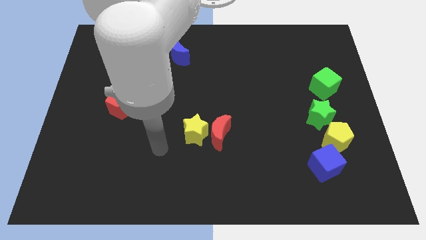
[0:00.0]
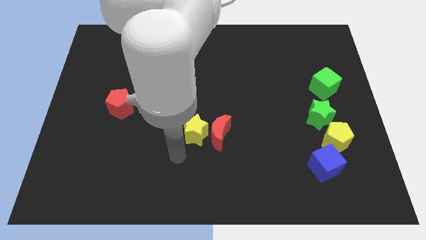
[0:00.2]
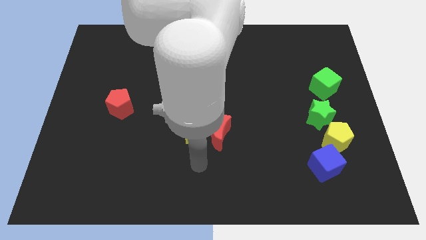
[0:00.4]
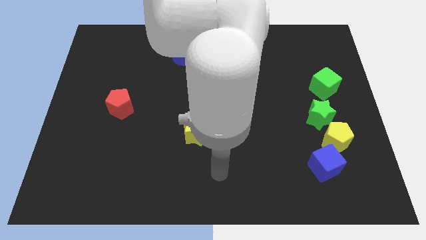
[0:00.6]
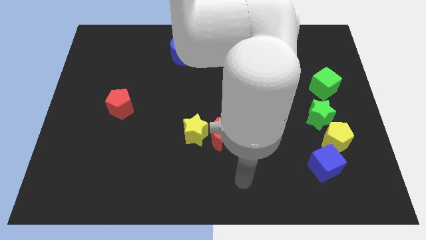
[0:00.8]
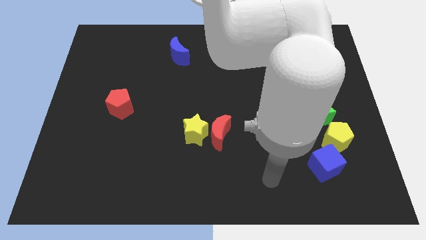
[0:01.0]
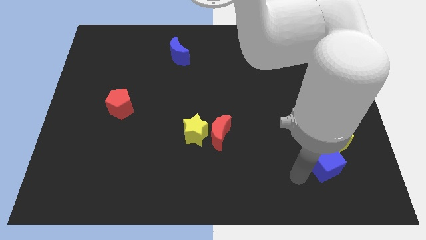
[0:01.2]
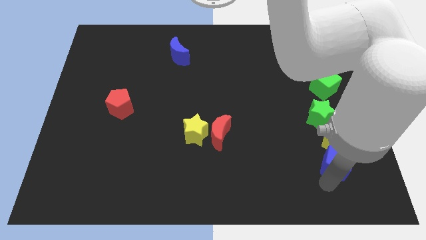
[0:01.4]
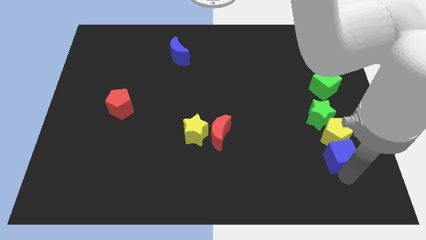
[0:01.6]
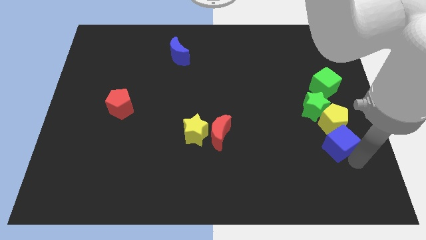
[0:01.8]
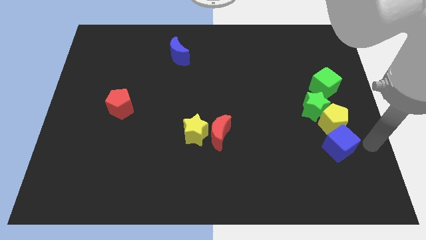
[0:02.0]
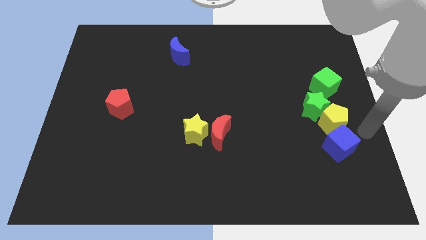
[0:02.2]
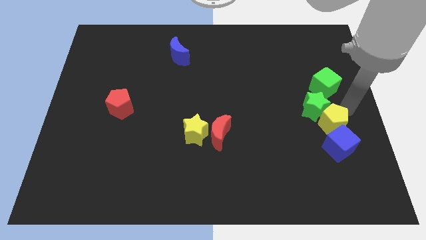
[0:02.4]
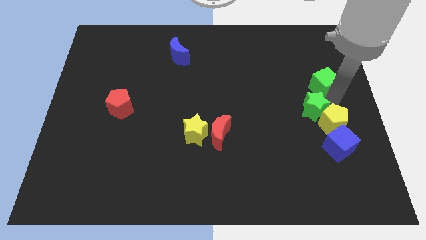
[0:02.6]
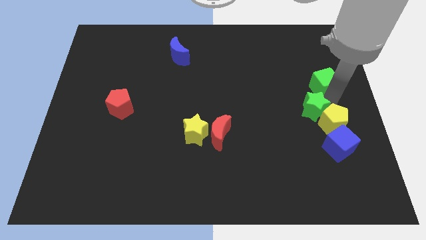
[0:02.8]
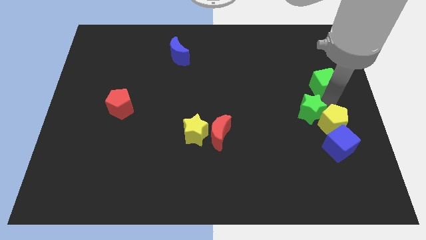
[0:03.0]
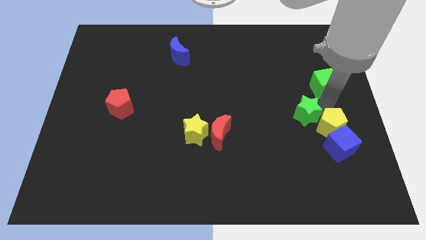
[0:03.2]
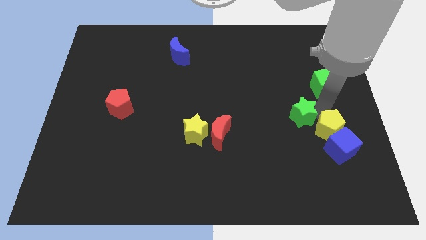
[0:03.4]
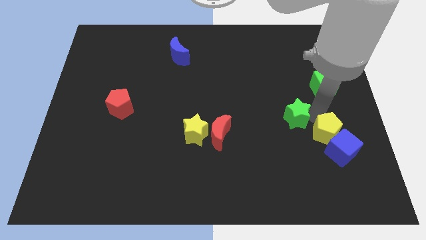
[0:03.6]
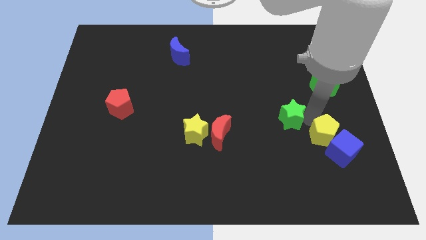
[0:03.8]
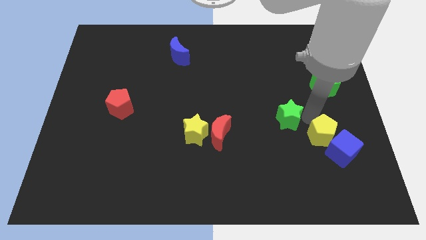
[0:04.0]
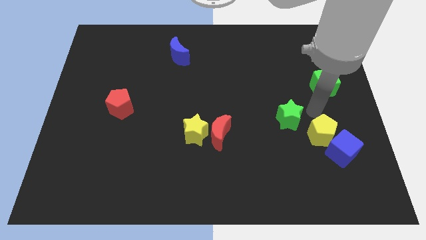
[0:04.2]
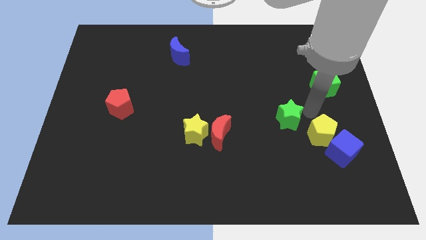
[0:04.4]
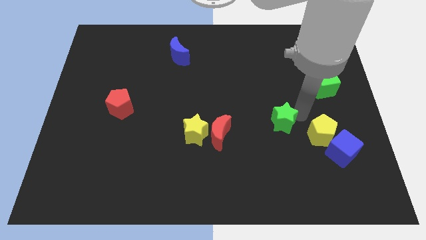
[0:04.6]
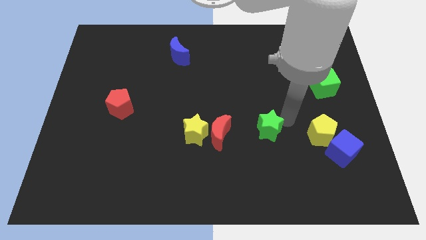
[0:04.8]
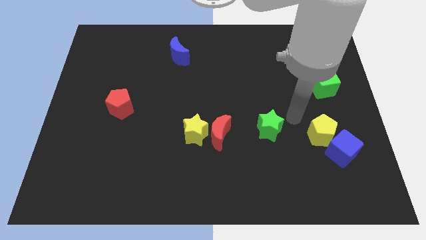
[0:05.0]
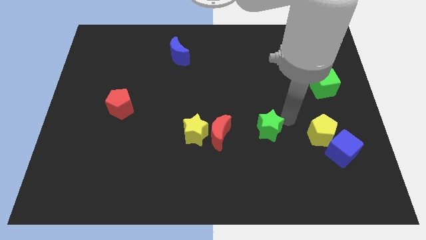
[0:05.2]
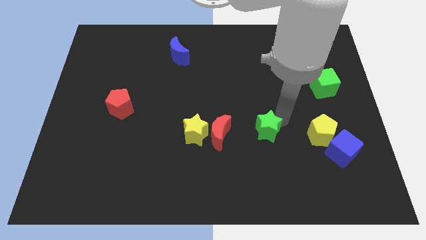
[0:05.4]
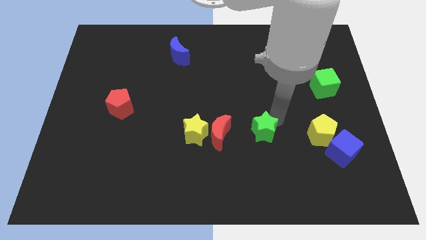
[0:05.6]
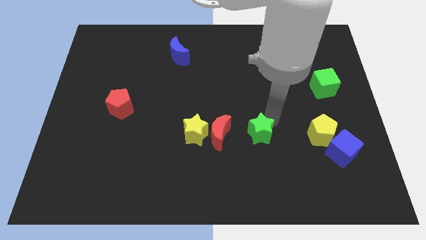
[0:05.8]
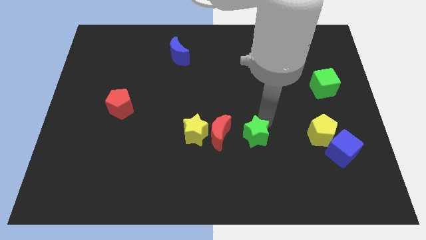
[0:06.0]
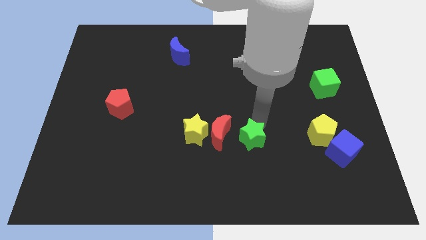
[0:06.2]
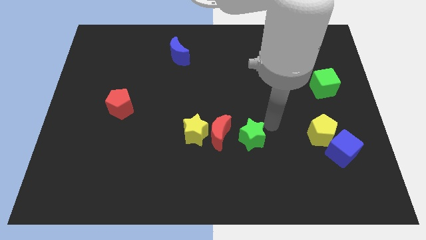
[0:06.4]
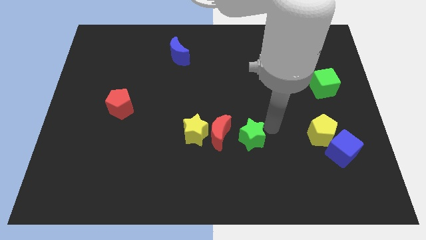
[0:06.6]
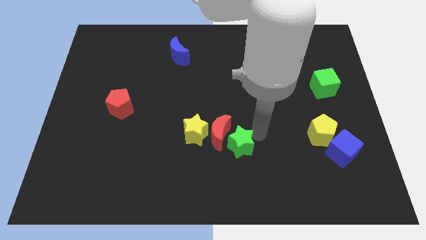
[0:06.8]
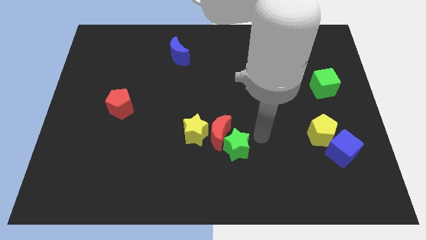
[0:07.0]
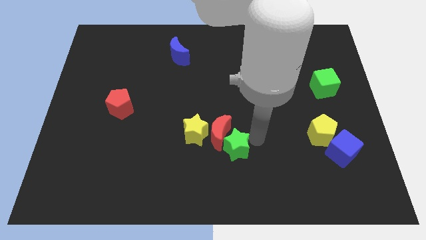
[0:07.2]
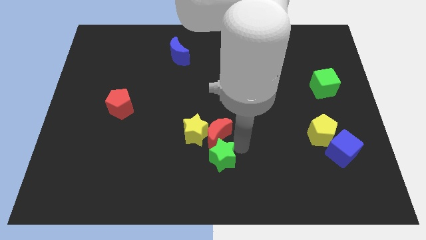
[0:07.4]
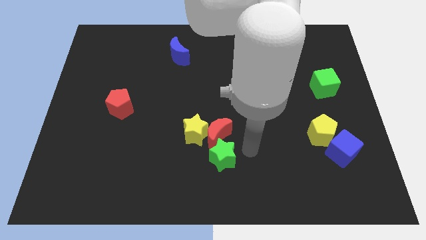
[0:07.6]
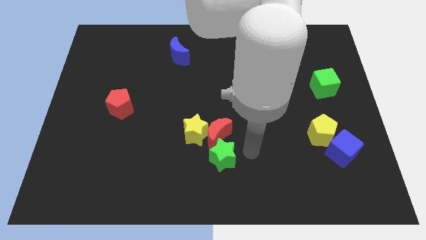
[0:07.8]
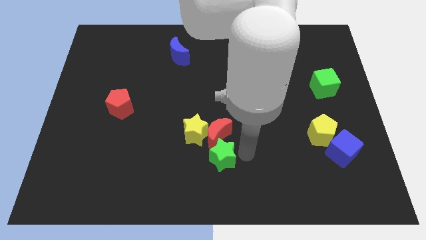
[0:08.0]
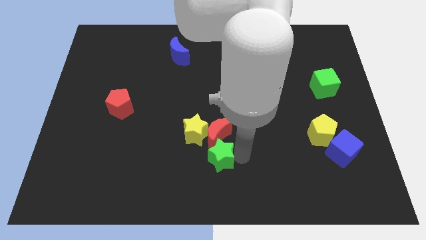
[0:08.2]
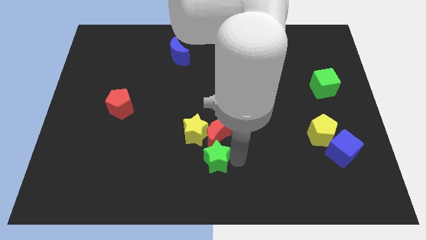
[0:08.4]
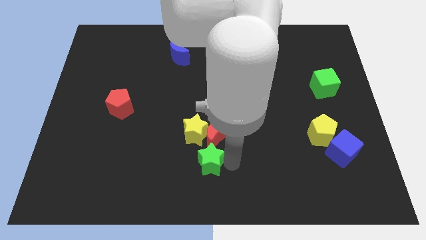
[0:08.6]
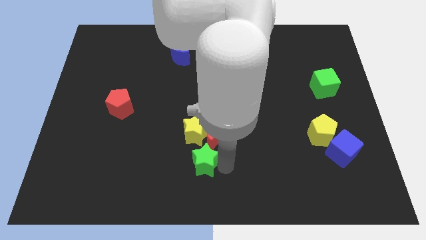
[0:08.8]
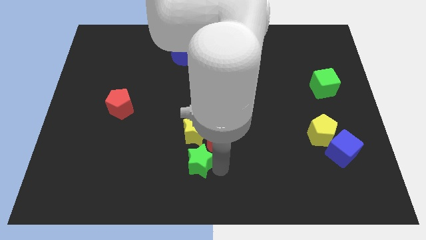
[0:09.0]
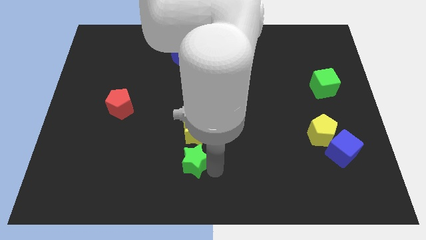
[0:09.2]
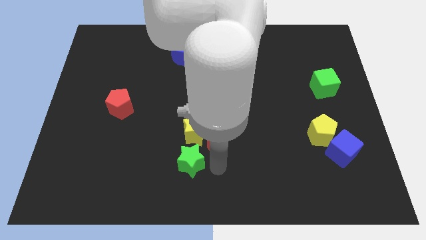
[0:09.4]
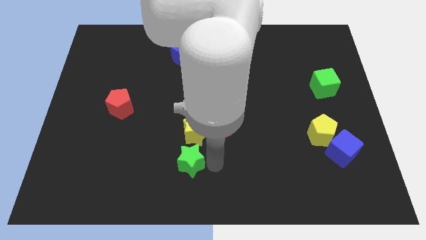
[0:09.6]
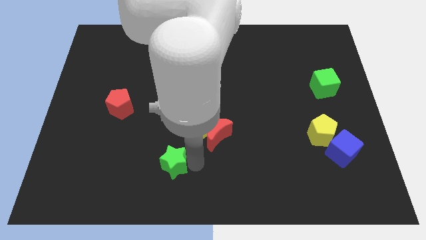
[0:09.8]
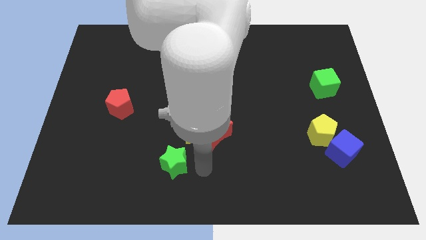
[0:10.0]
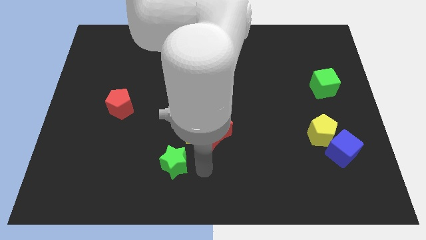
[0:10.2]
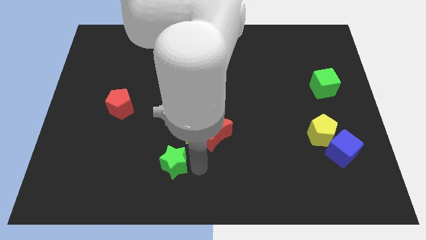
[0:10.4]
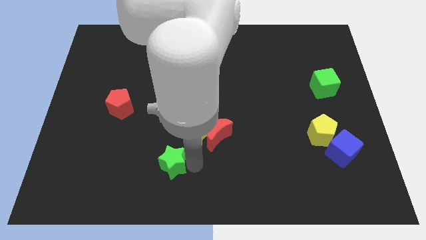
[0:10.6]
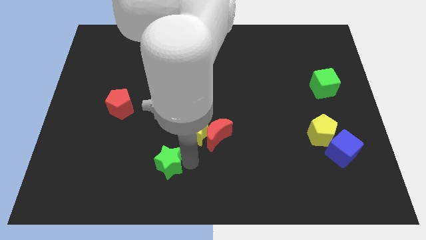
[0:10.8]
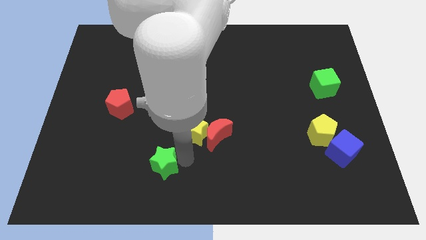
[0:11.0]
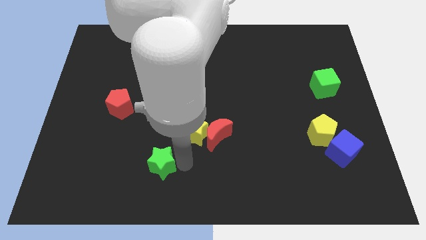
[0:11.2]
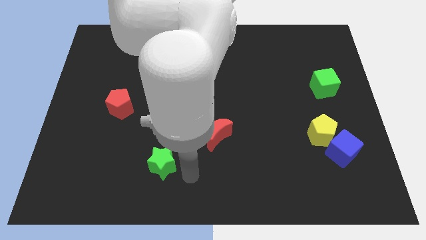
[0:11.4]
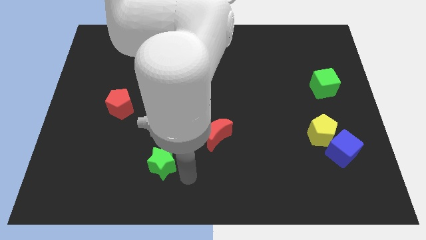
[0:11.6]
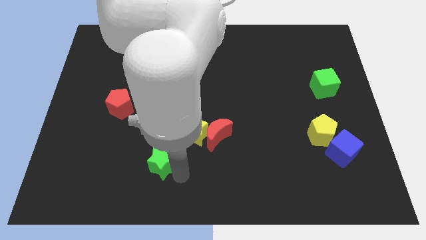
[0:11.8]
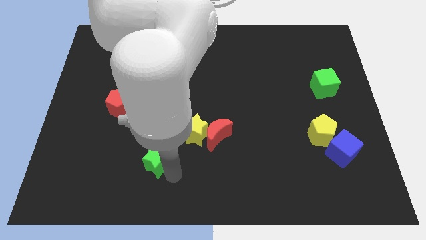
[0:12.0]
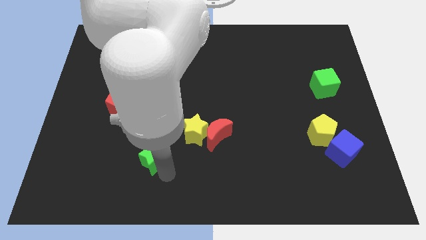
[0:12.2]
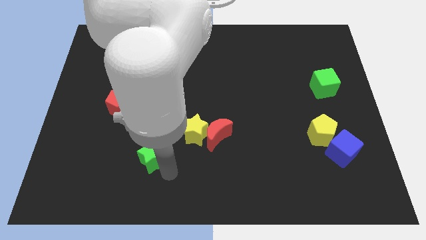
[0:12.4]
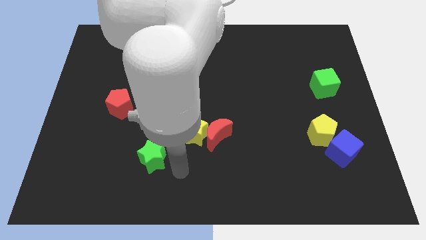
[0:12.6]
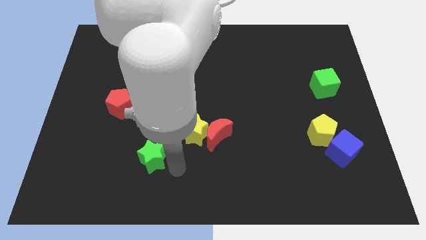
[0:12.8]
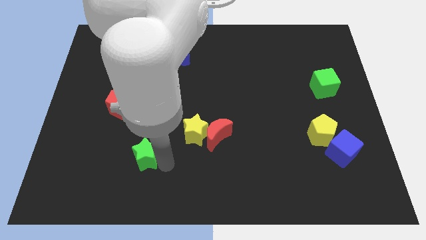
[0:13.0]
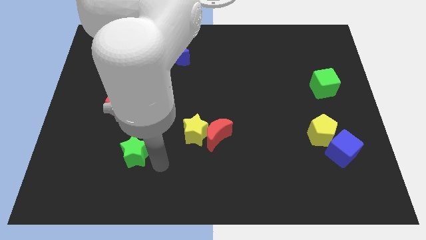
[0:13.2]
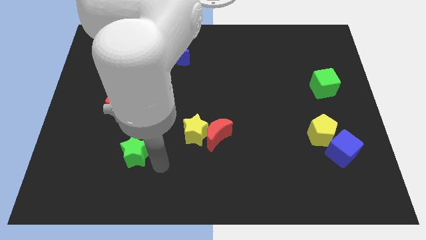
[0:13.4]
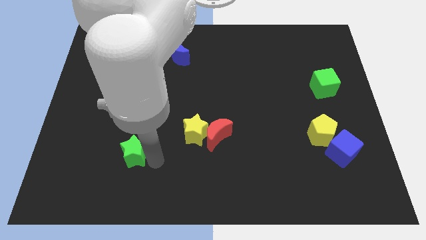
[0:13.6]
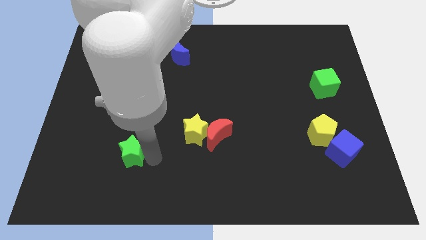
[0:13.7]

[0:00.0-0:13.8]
move the green star to the bottom of the red pentagon
